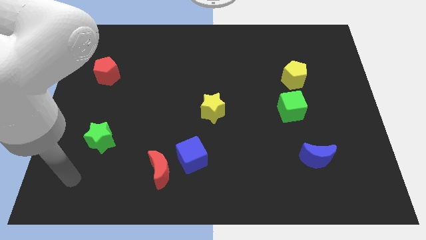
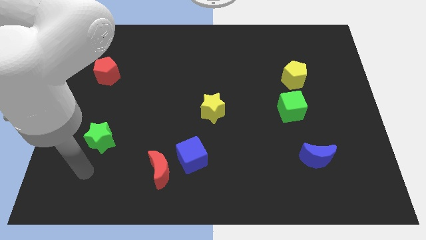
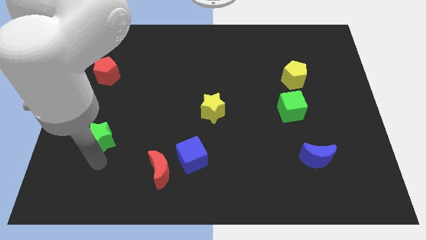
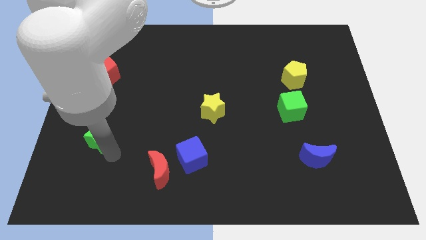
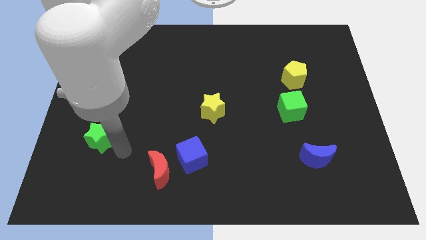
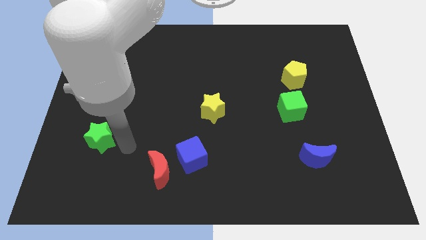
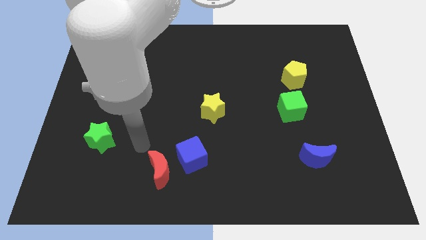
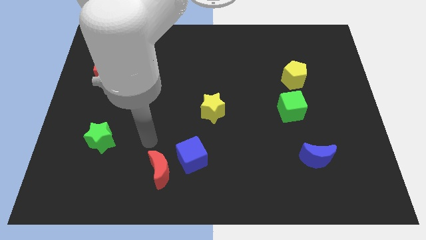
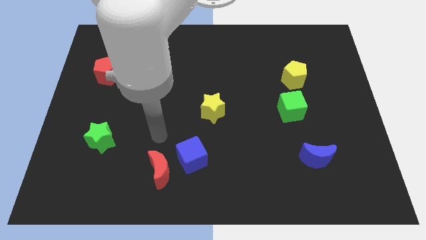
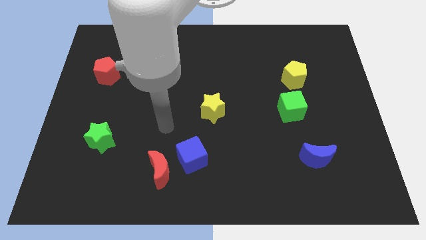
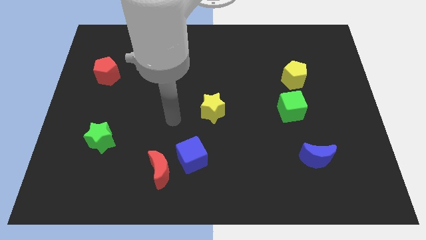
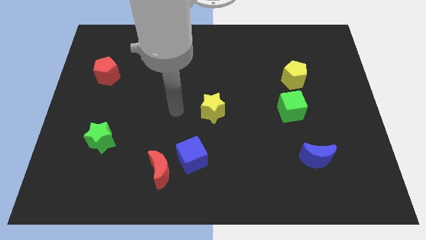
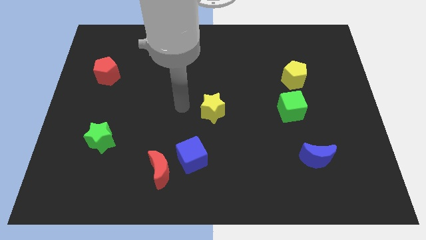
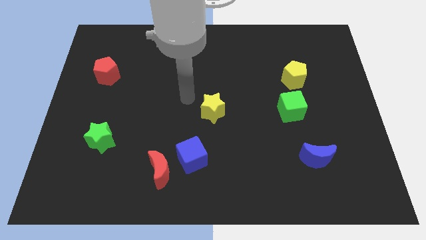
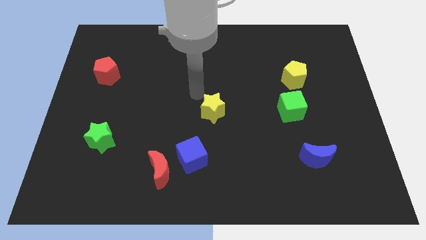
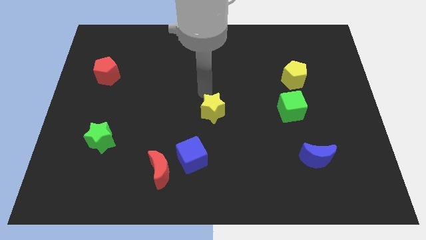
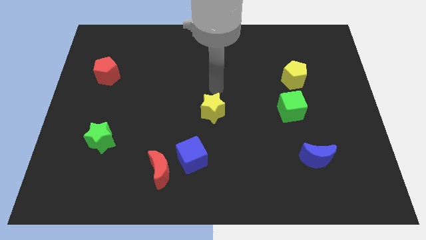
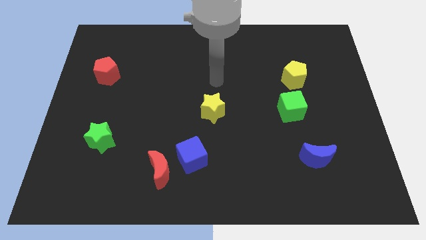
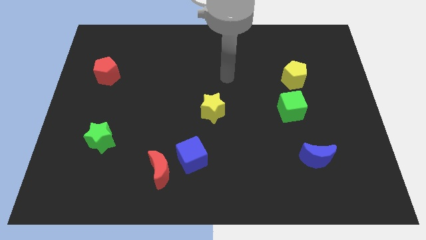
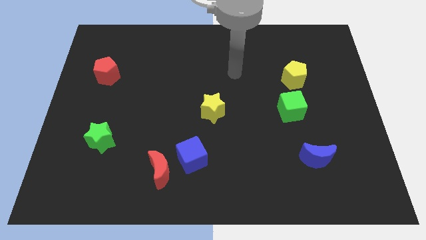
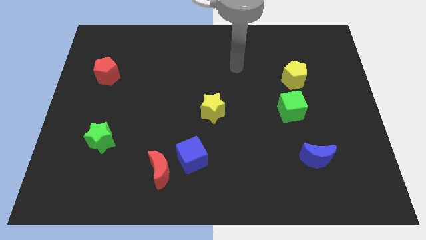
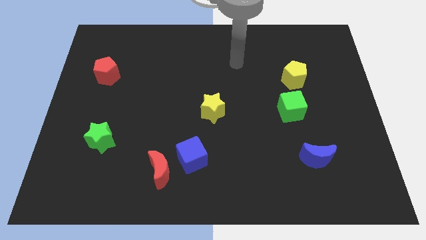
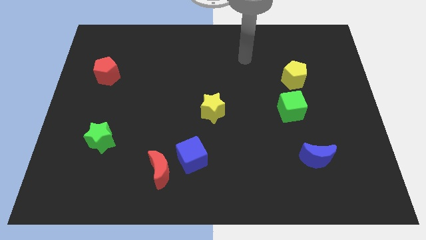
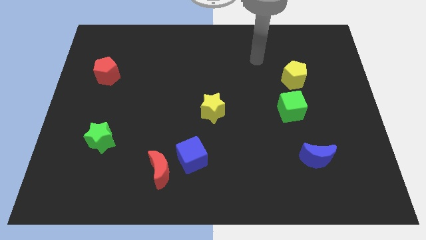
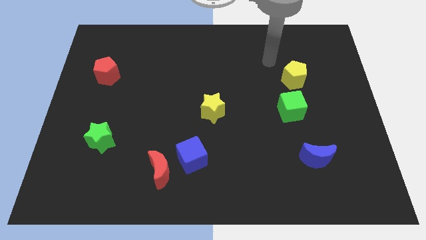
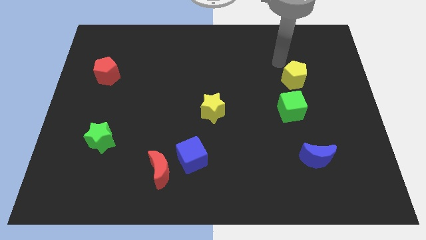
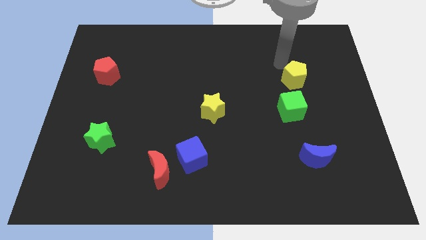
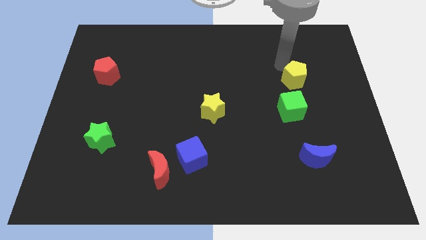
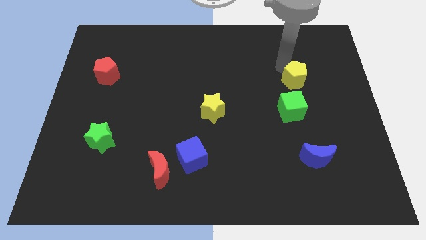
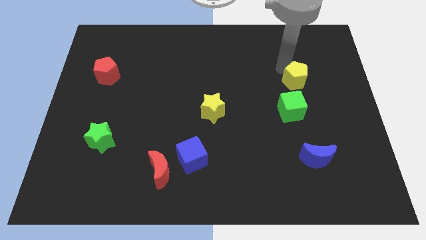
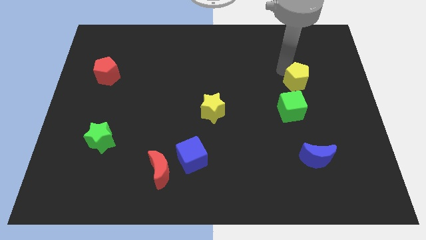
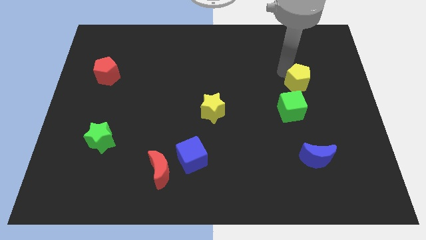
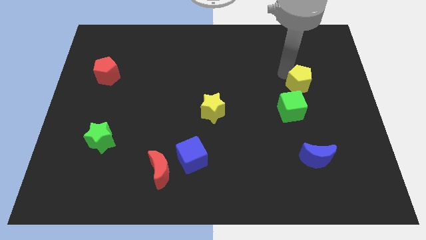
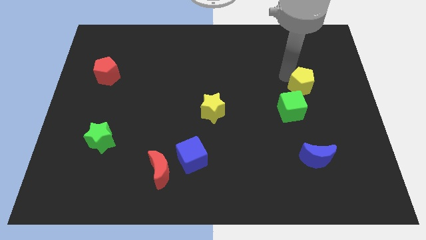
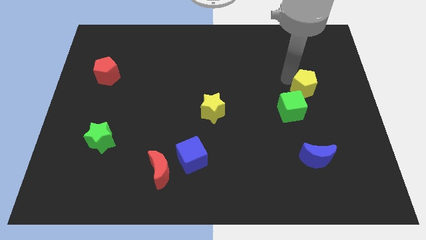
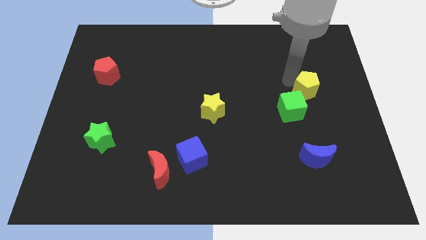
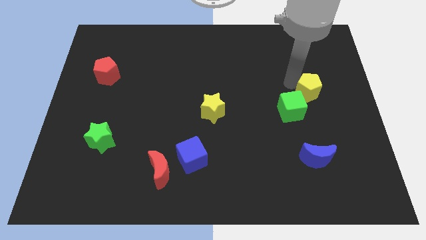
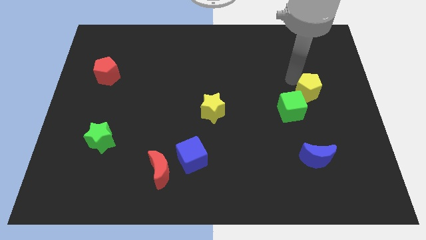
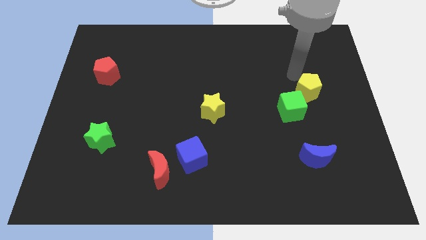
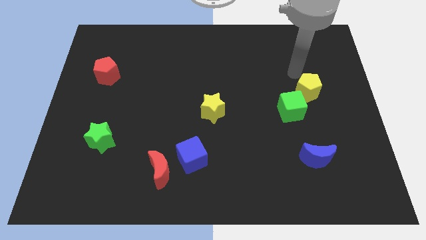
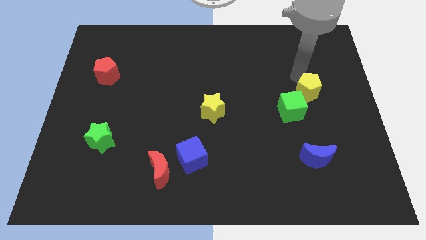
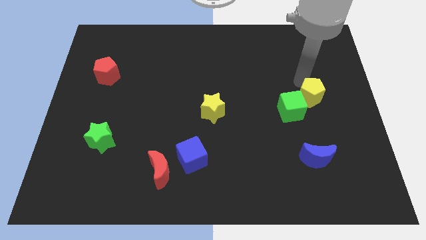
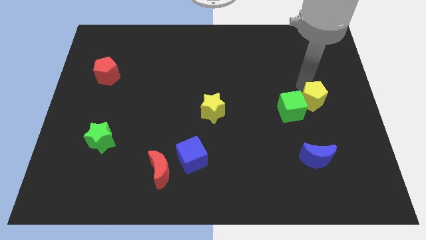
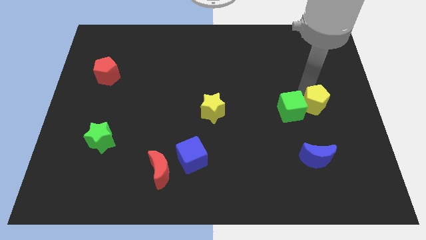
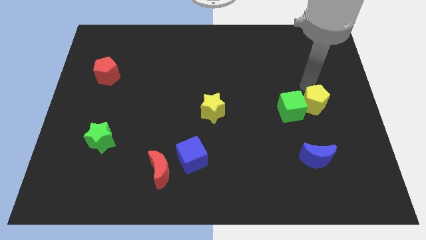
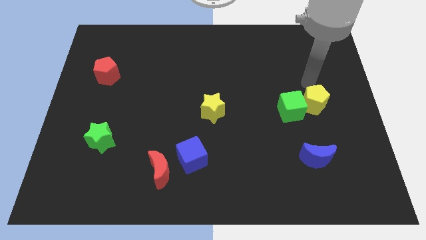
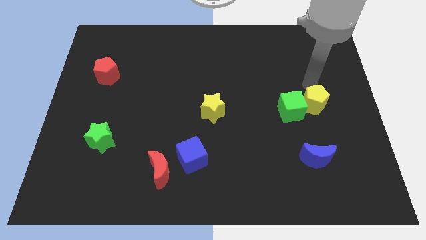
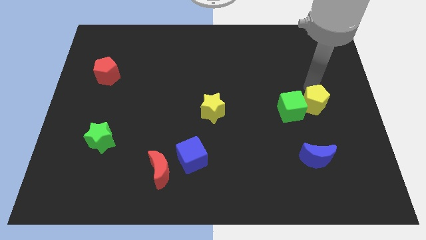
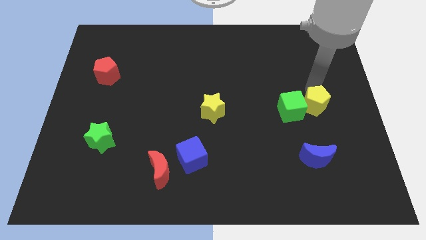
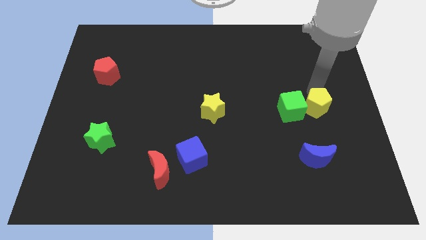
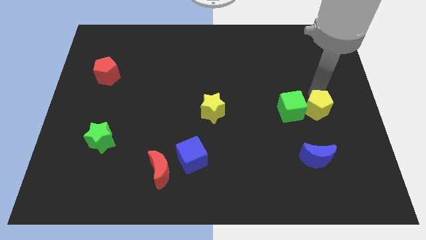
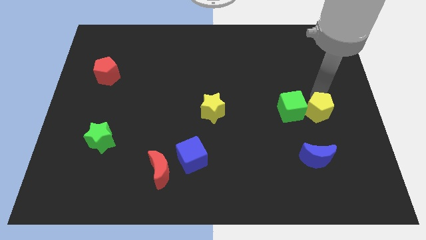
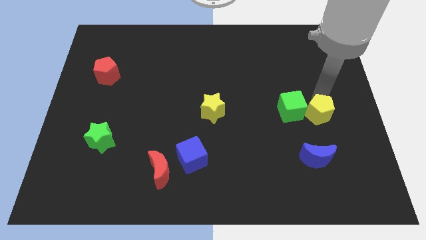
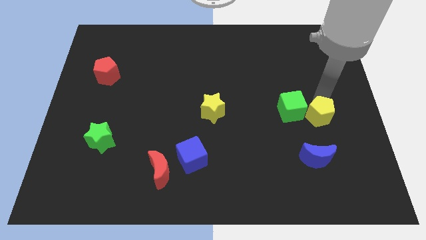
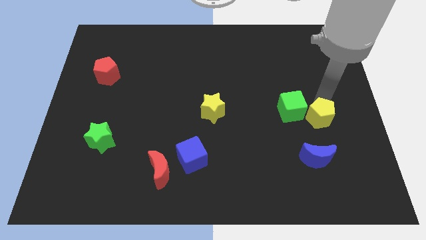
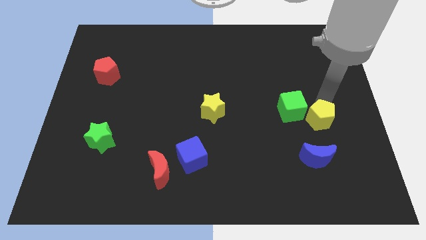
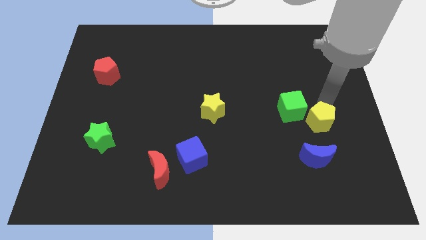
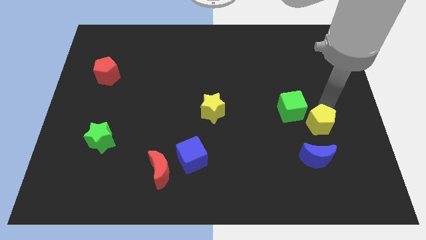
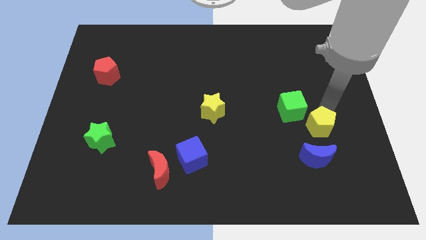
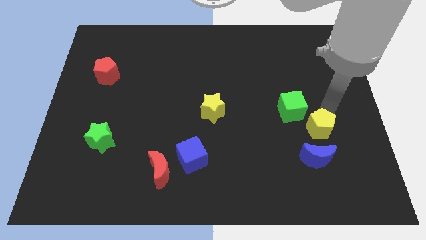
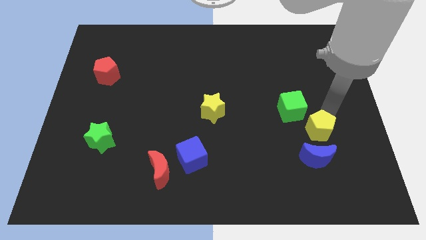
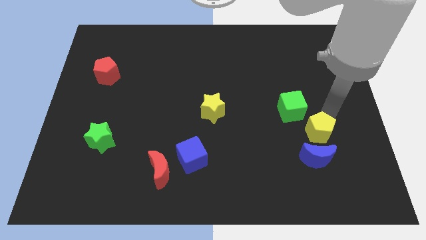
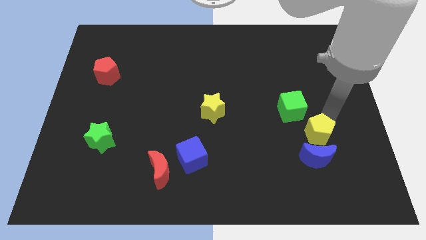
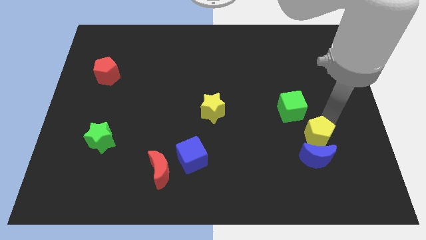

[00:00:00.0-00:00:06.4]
put the yellow pentagon next to the blue moon

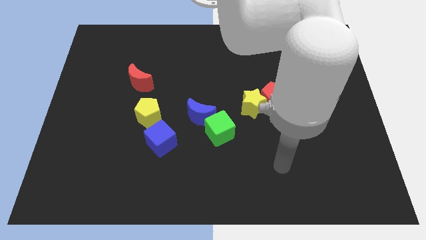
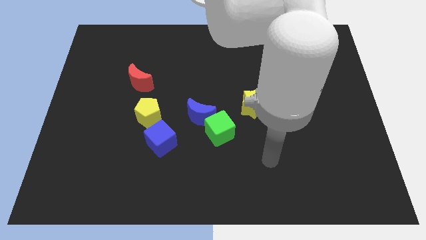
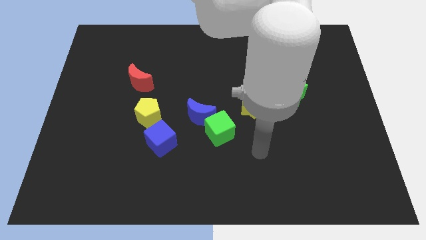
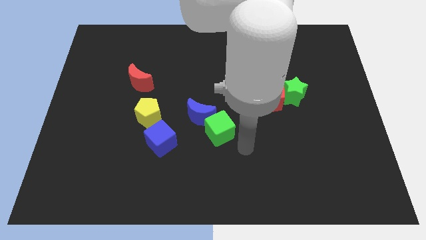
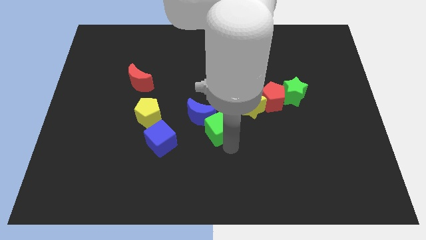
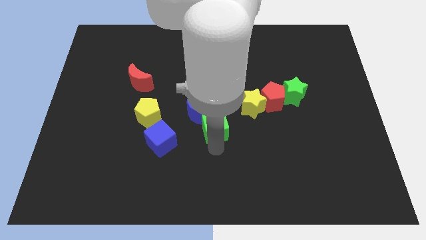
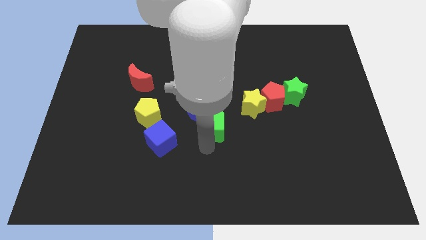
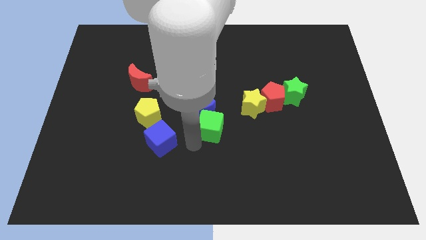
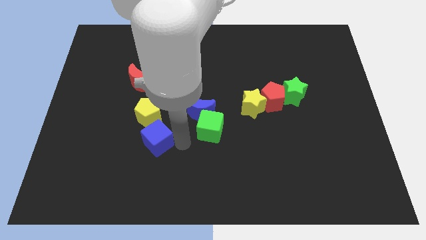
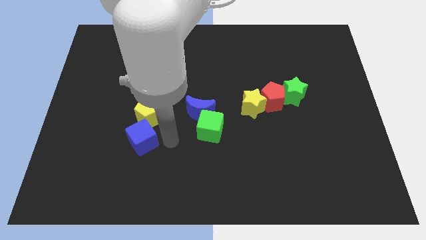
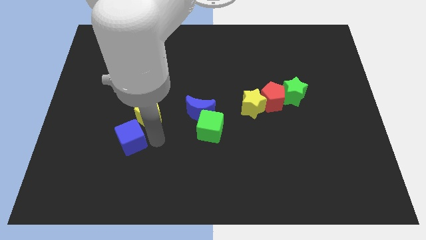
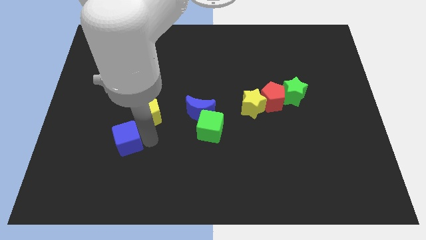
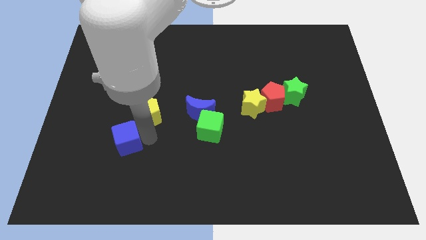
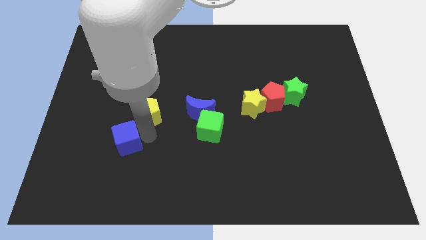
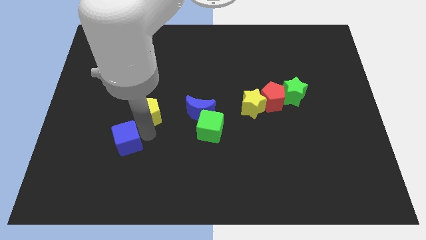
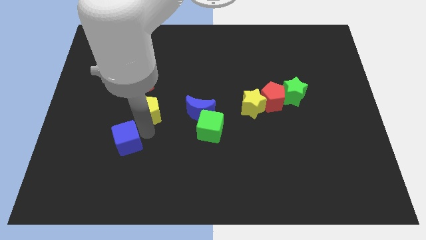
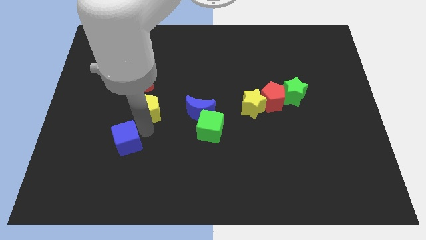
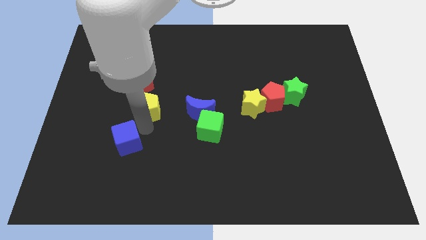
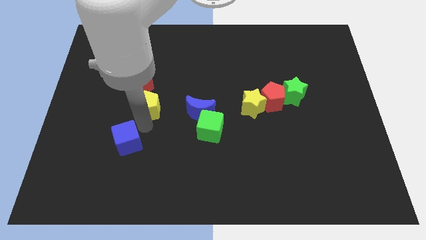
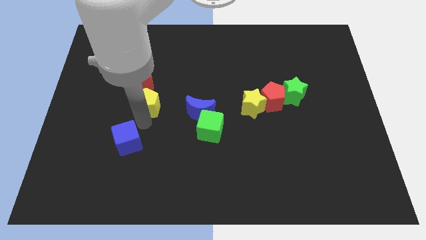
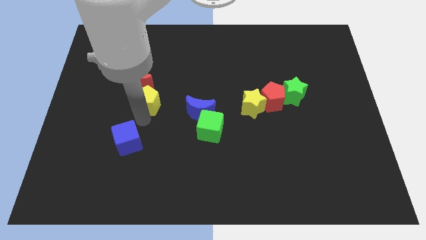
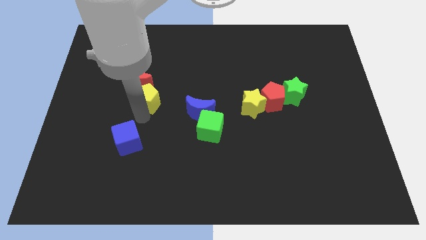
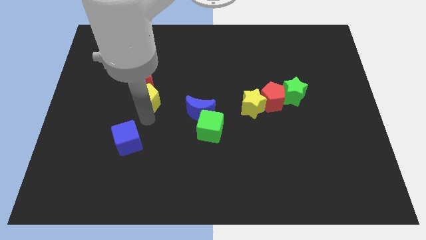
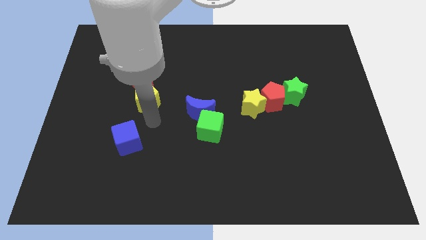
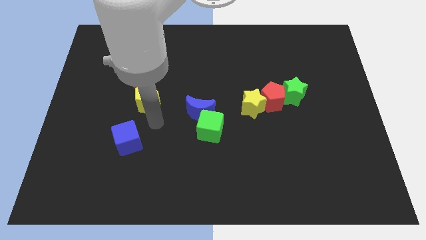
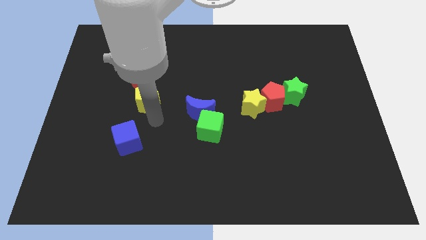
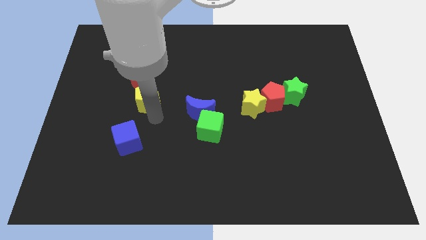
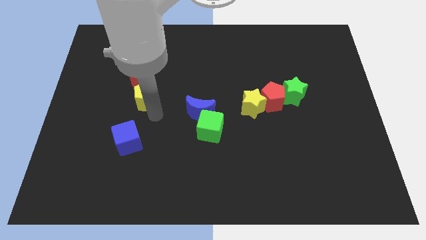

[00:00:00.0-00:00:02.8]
push the yellow pentagon to the red moon
